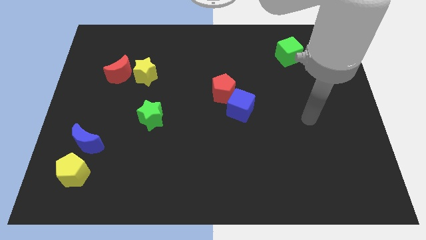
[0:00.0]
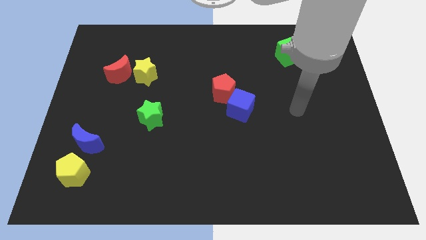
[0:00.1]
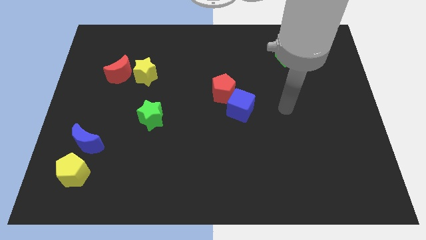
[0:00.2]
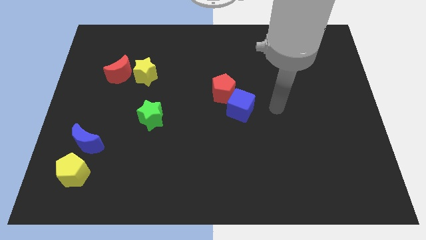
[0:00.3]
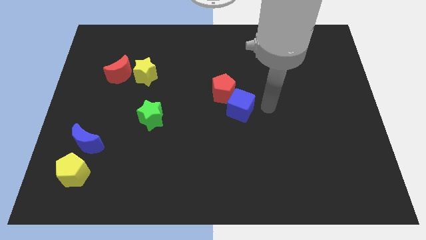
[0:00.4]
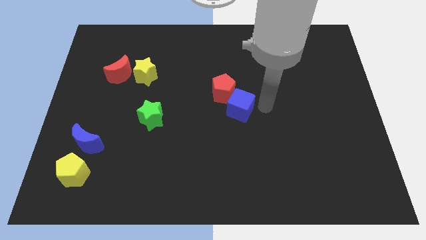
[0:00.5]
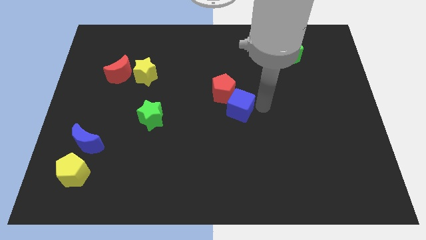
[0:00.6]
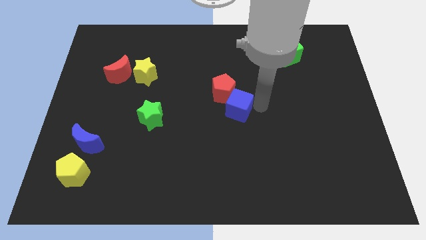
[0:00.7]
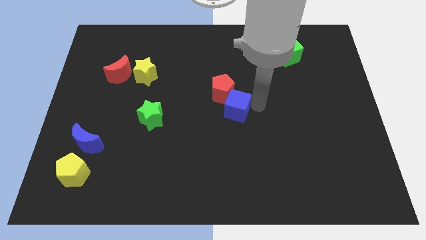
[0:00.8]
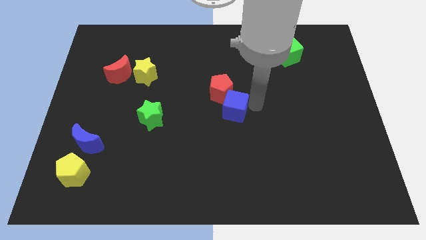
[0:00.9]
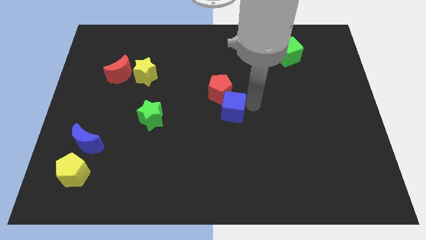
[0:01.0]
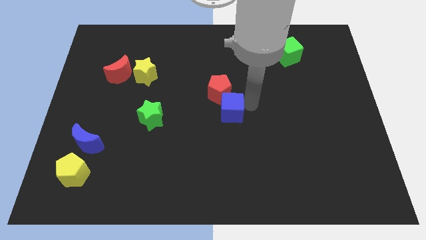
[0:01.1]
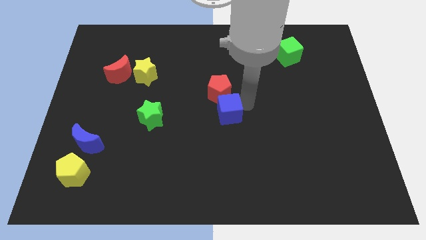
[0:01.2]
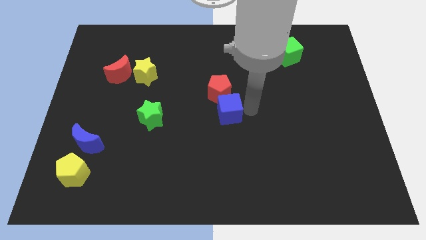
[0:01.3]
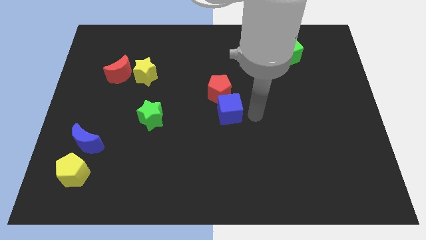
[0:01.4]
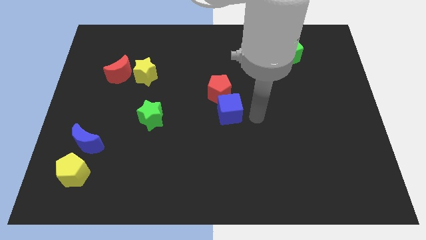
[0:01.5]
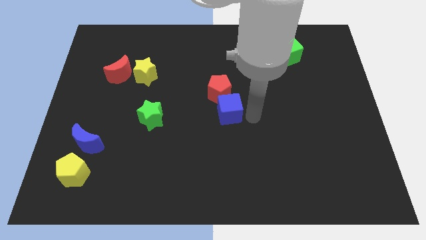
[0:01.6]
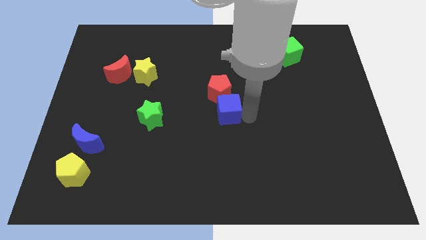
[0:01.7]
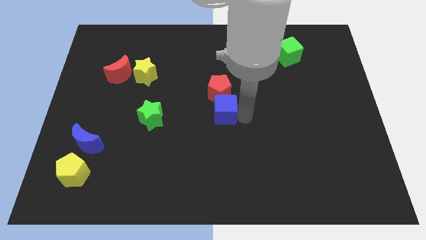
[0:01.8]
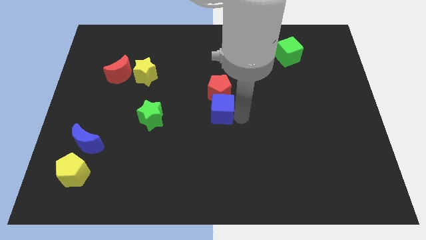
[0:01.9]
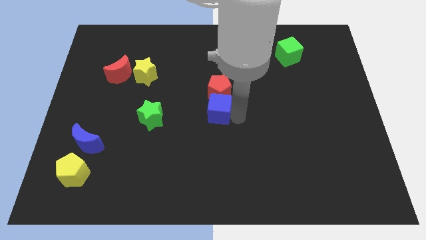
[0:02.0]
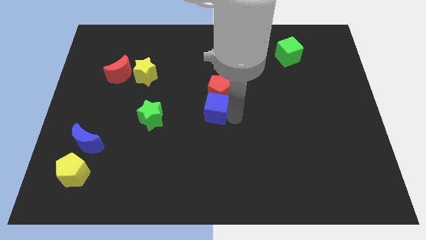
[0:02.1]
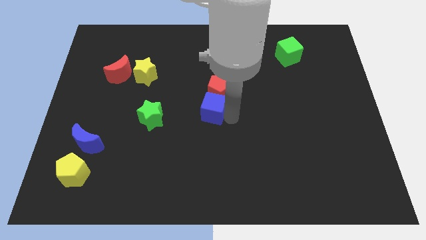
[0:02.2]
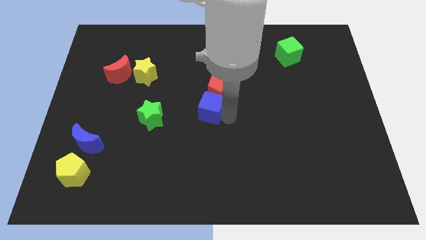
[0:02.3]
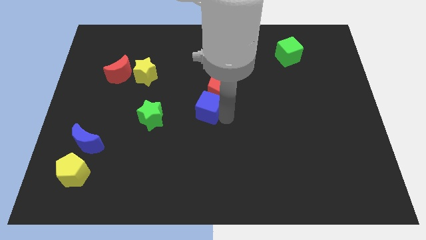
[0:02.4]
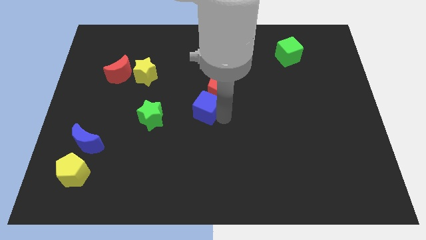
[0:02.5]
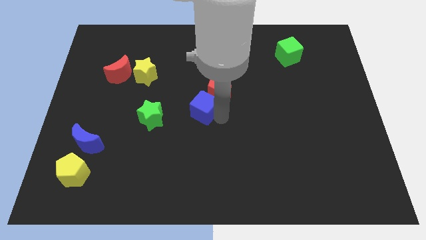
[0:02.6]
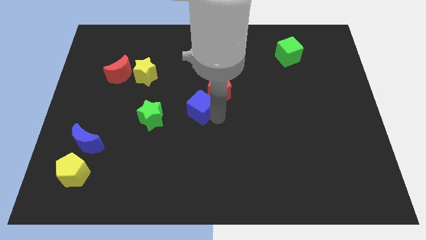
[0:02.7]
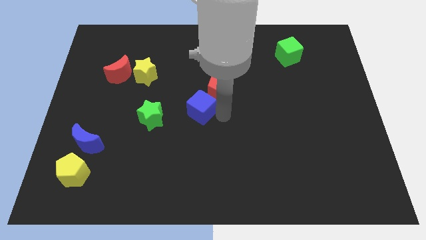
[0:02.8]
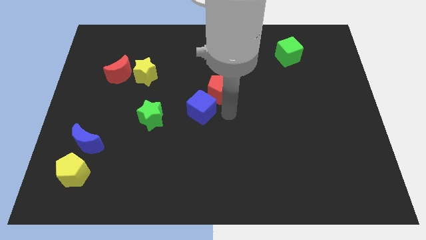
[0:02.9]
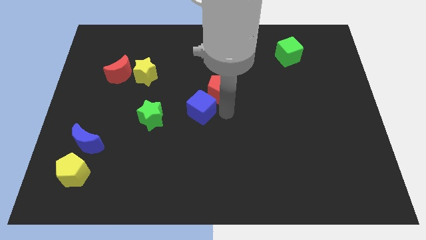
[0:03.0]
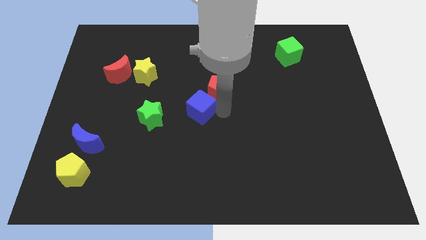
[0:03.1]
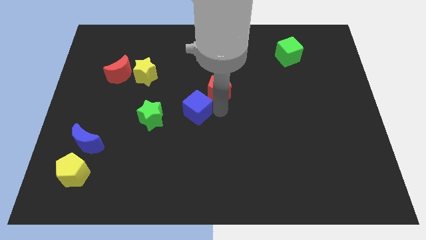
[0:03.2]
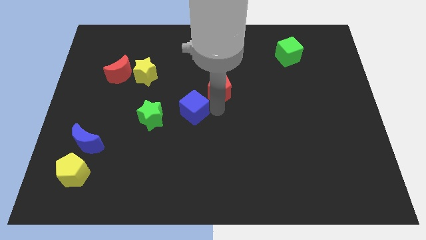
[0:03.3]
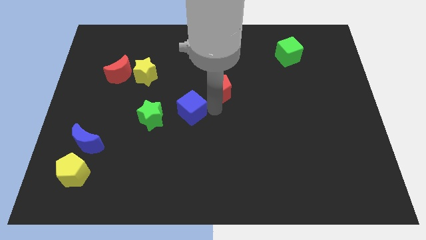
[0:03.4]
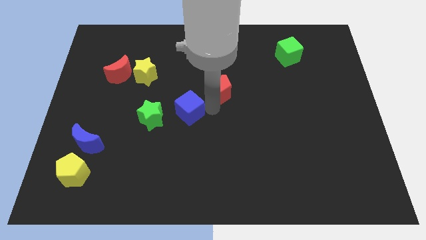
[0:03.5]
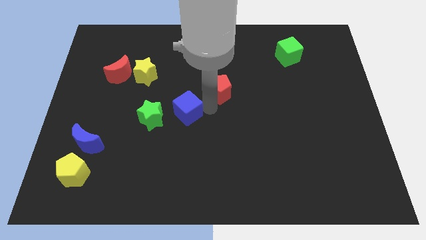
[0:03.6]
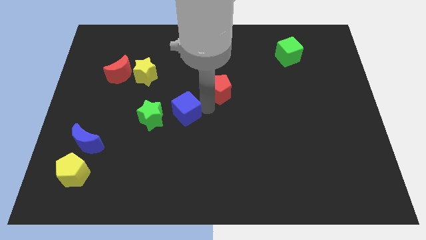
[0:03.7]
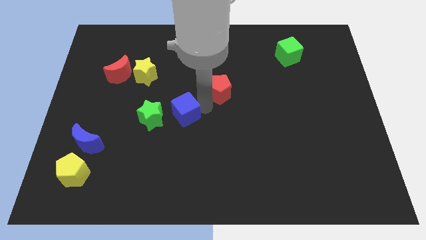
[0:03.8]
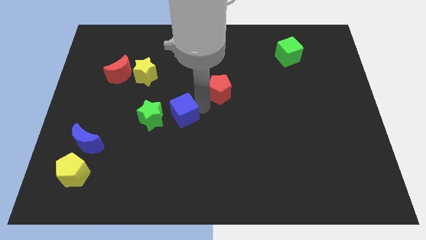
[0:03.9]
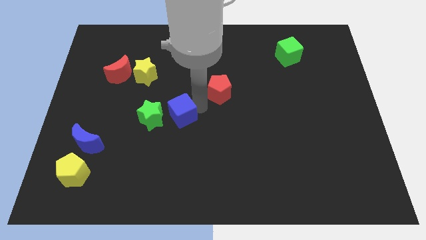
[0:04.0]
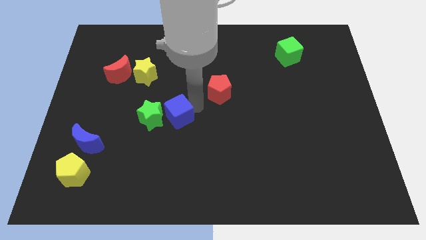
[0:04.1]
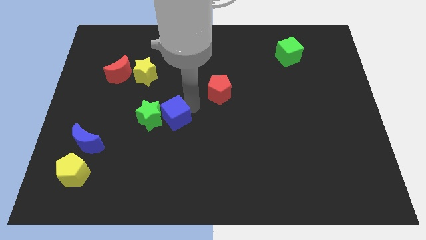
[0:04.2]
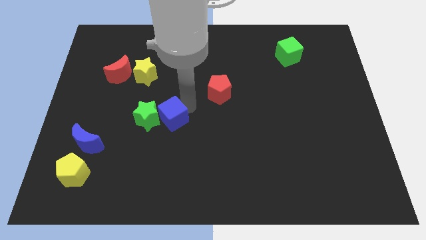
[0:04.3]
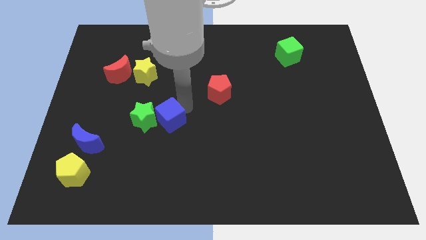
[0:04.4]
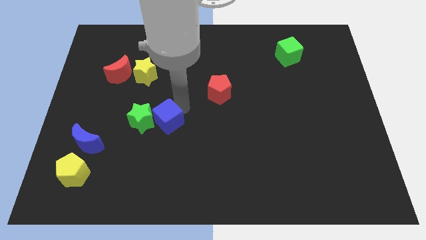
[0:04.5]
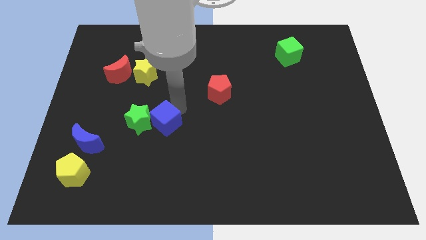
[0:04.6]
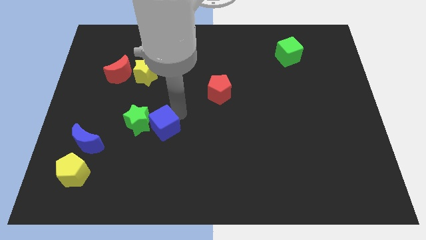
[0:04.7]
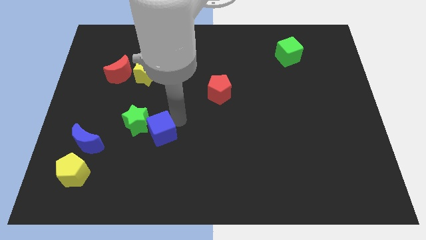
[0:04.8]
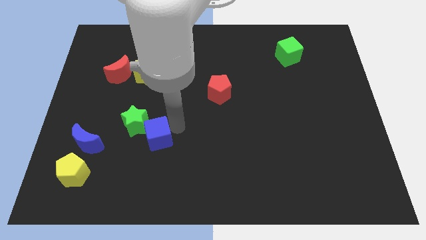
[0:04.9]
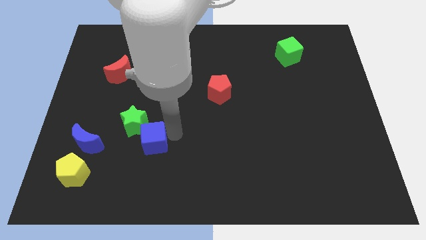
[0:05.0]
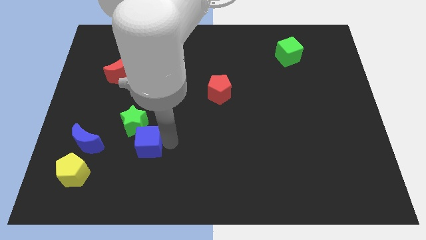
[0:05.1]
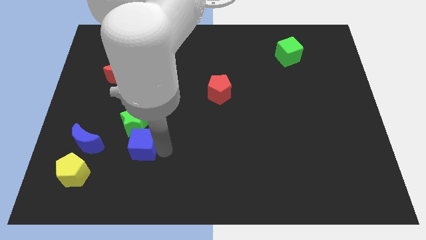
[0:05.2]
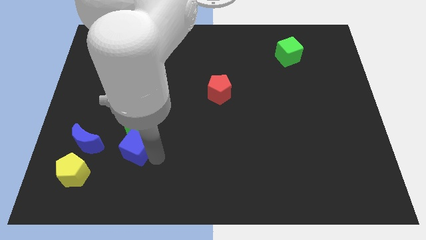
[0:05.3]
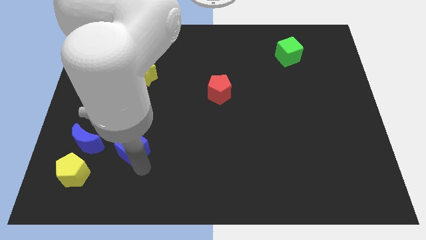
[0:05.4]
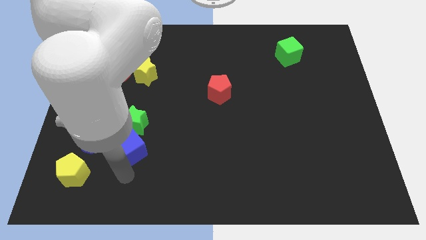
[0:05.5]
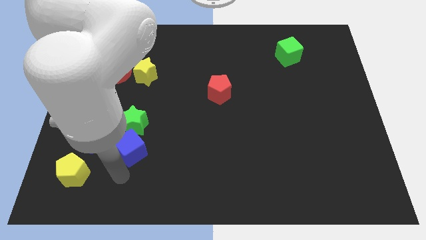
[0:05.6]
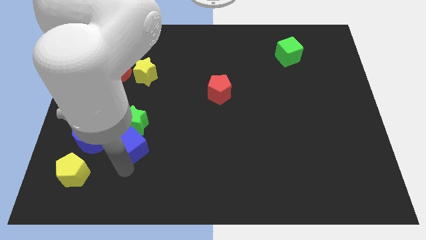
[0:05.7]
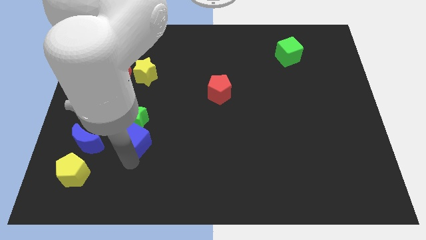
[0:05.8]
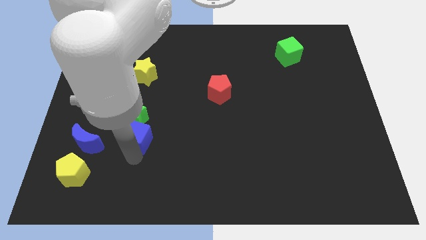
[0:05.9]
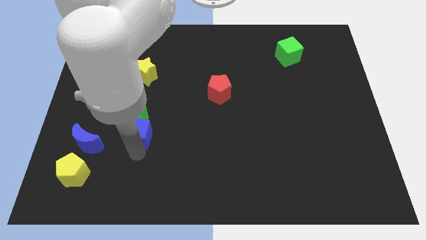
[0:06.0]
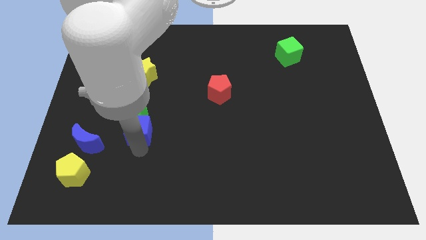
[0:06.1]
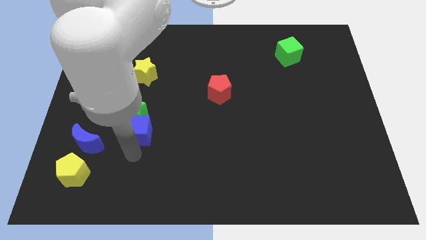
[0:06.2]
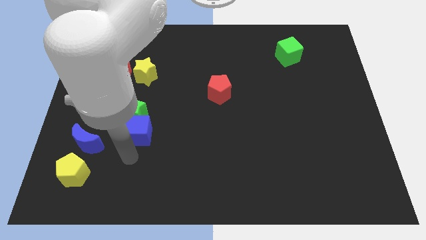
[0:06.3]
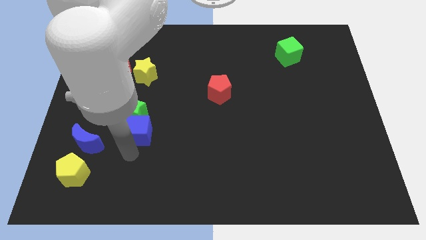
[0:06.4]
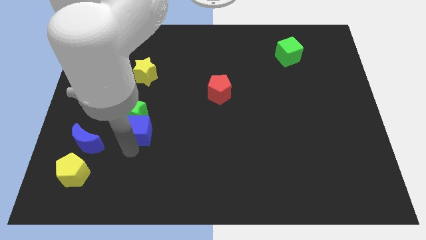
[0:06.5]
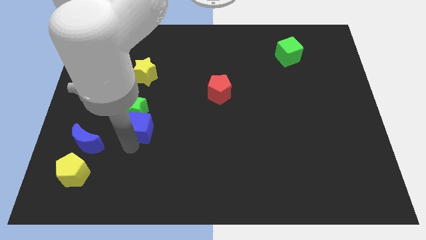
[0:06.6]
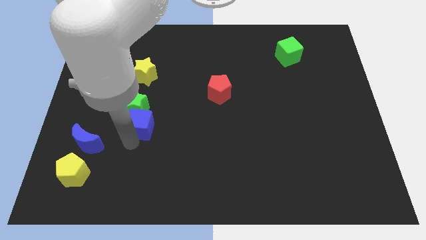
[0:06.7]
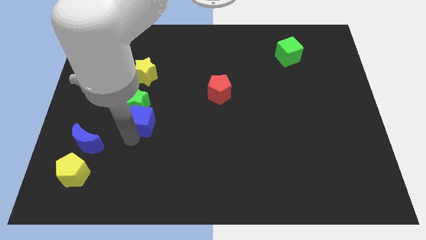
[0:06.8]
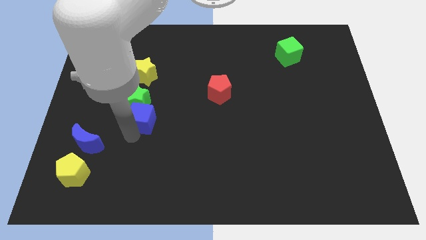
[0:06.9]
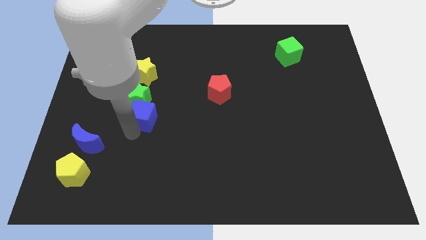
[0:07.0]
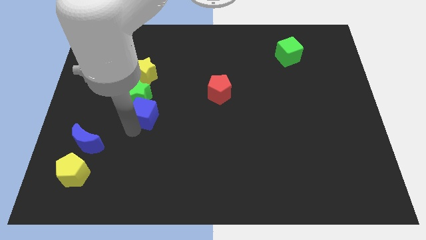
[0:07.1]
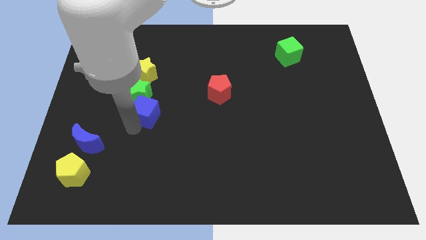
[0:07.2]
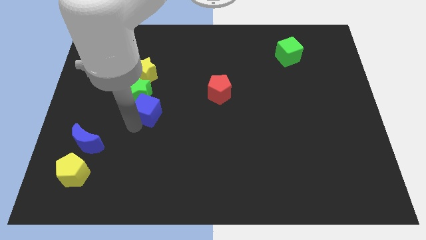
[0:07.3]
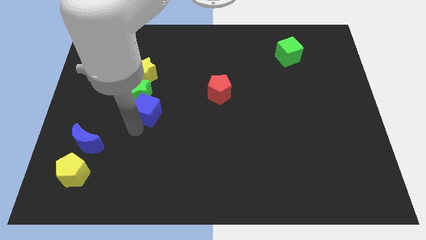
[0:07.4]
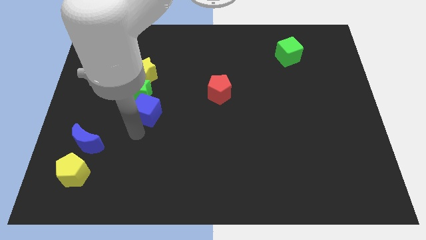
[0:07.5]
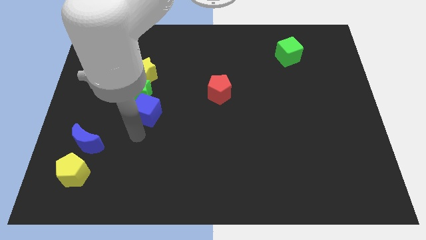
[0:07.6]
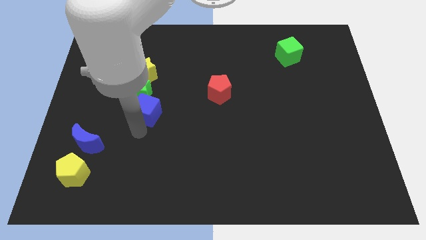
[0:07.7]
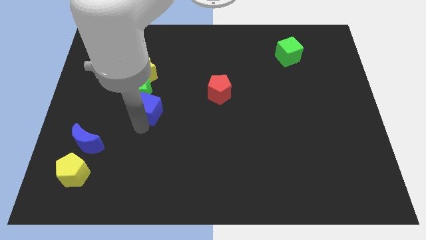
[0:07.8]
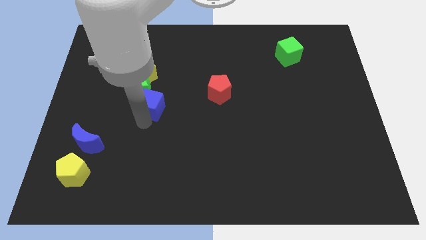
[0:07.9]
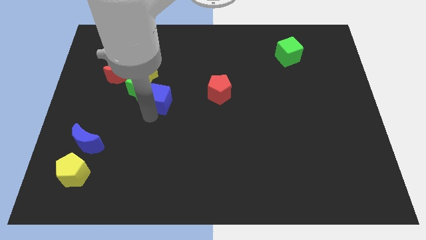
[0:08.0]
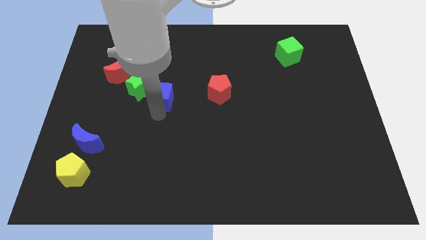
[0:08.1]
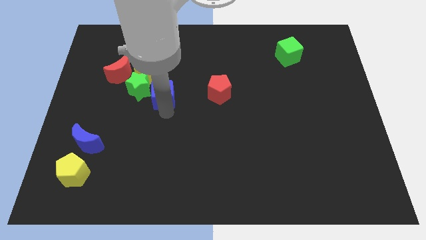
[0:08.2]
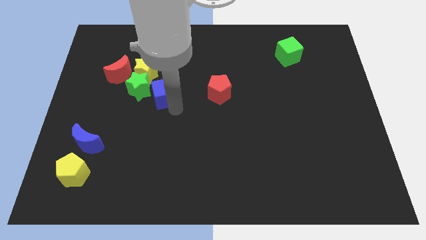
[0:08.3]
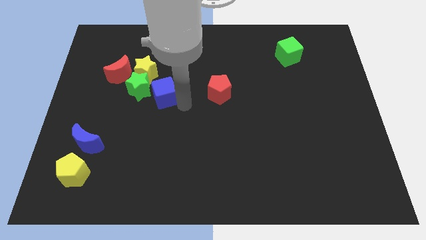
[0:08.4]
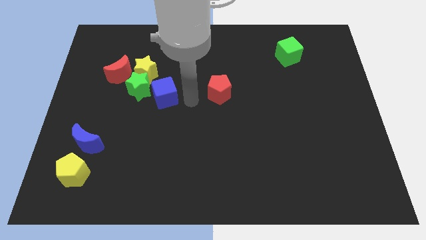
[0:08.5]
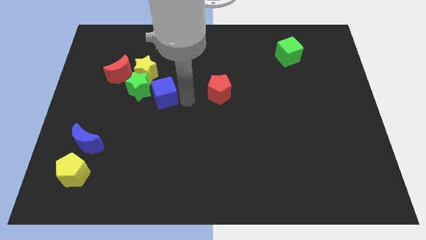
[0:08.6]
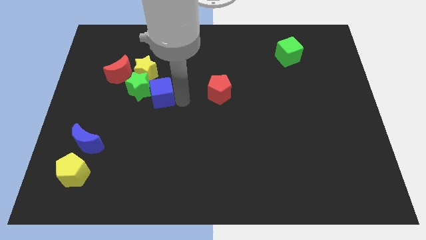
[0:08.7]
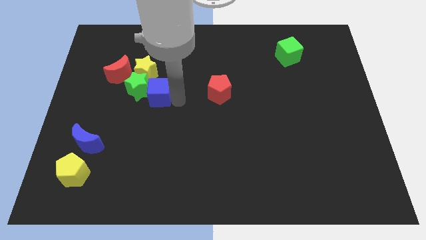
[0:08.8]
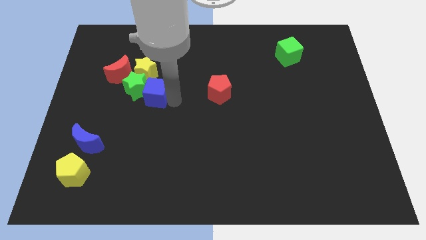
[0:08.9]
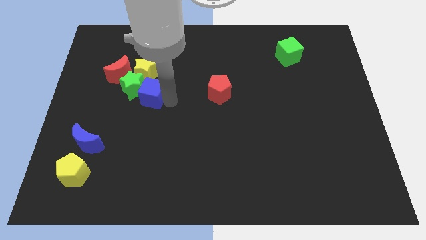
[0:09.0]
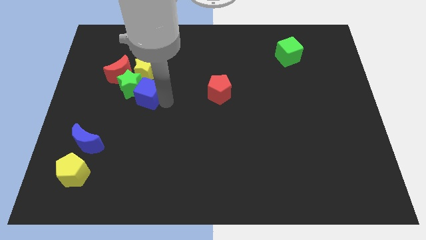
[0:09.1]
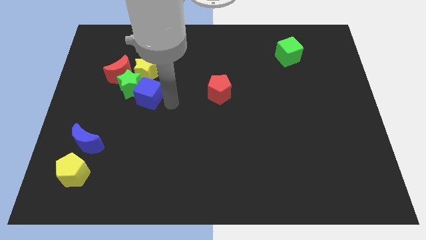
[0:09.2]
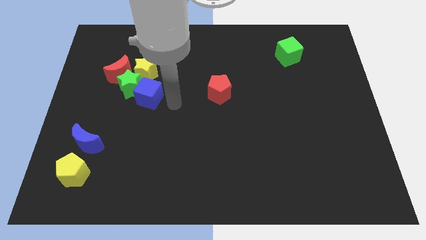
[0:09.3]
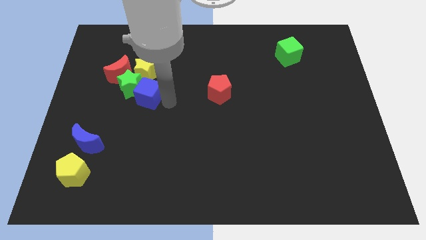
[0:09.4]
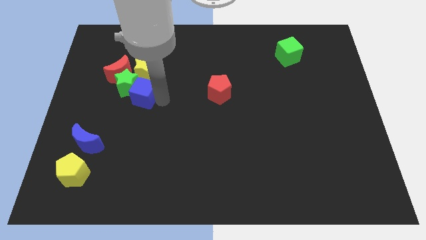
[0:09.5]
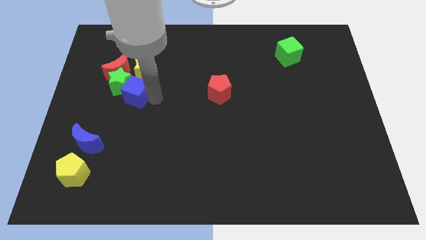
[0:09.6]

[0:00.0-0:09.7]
slide the blue cube diagonally down and to the left of the yellow star
